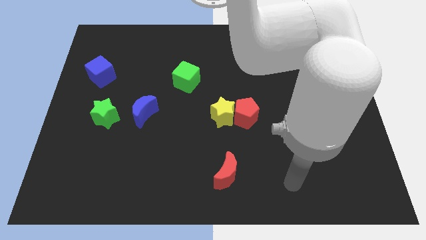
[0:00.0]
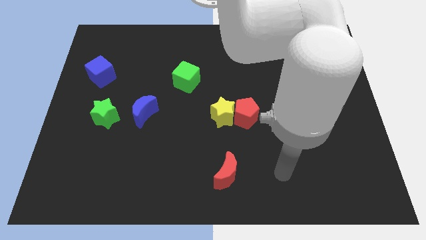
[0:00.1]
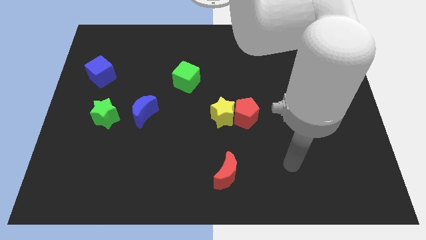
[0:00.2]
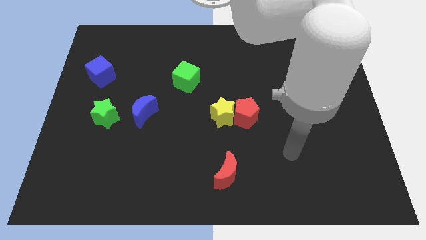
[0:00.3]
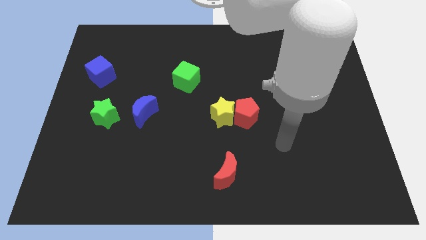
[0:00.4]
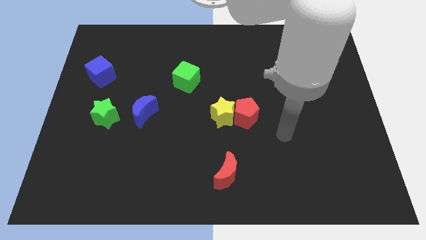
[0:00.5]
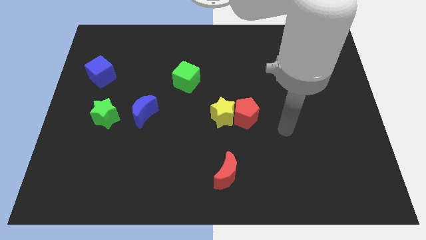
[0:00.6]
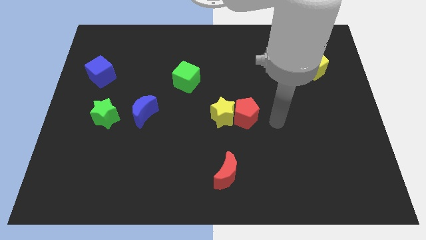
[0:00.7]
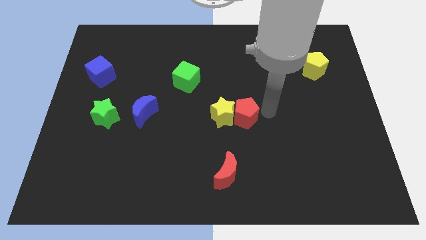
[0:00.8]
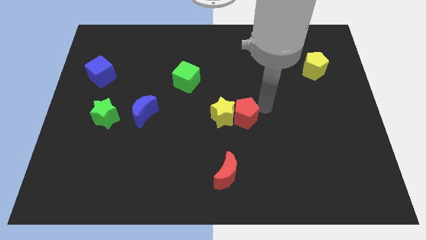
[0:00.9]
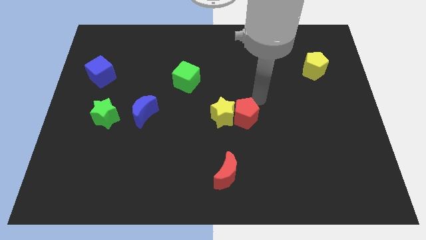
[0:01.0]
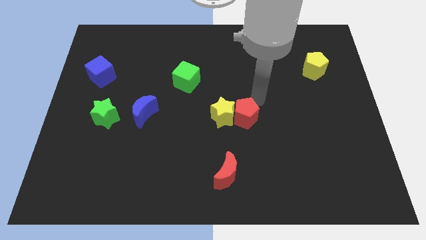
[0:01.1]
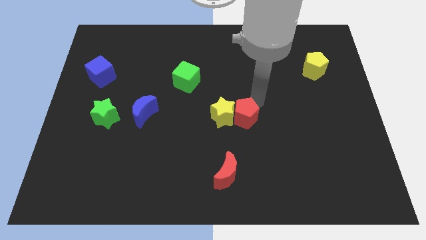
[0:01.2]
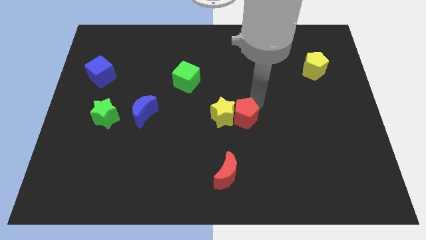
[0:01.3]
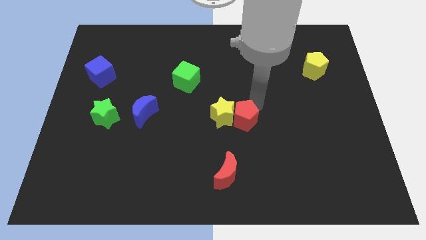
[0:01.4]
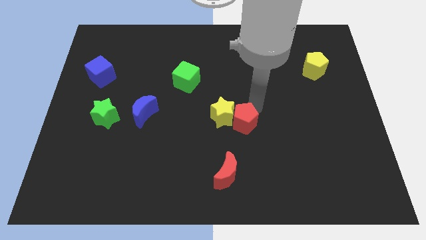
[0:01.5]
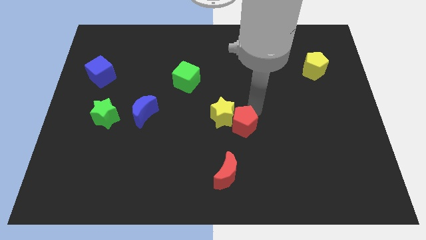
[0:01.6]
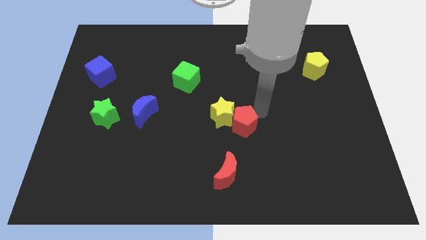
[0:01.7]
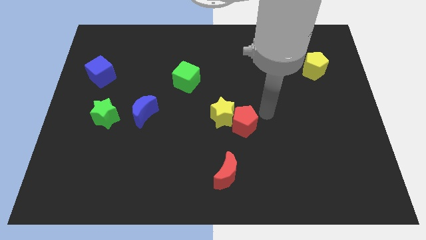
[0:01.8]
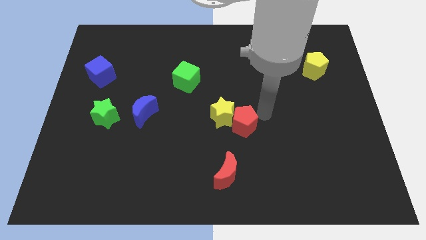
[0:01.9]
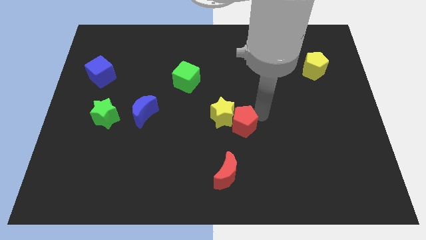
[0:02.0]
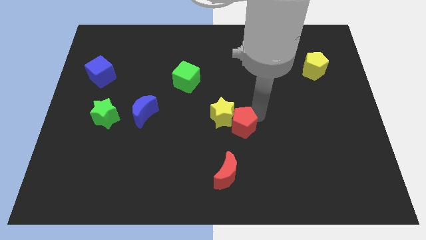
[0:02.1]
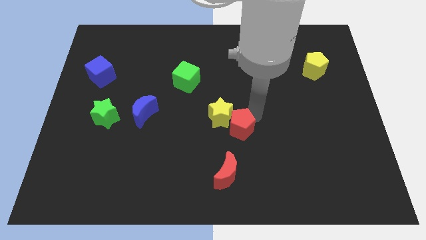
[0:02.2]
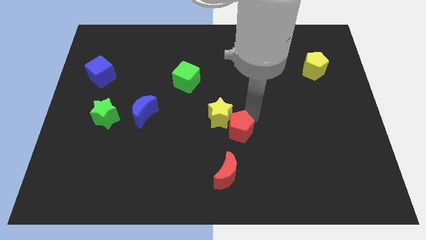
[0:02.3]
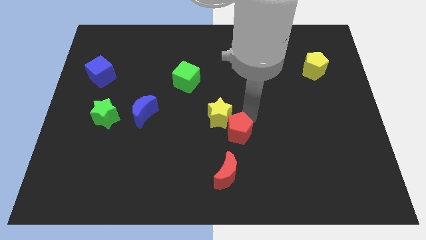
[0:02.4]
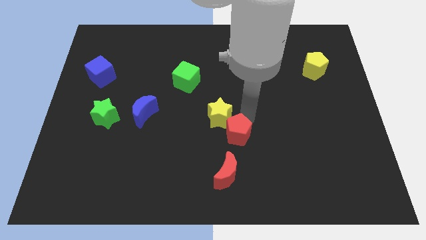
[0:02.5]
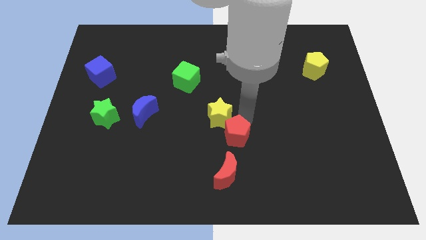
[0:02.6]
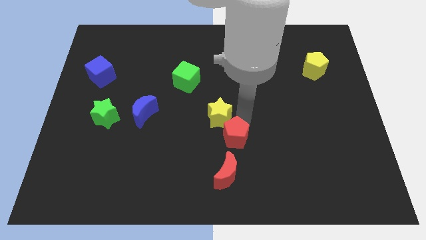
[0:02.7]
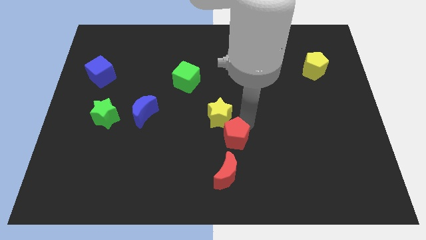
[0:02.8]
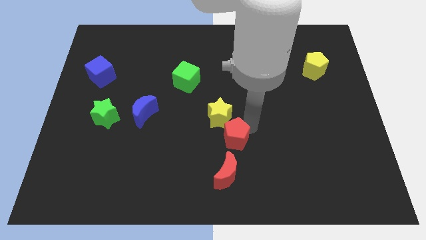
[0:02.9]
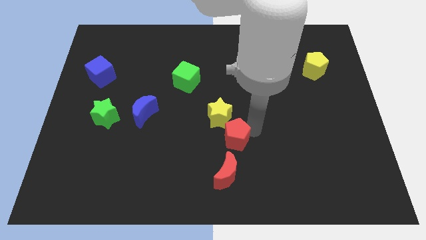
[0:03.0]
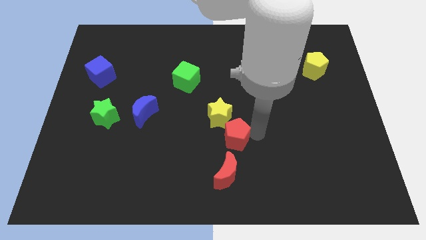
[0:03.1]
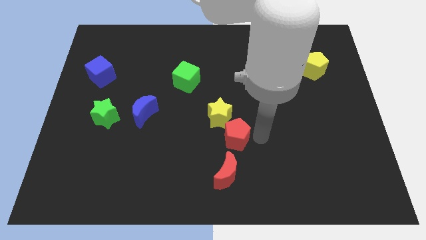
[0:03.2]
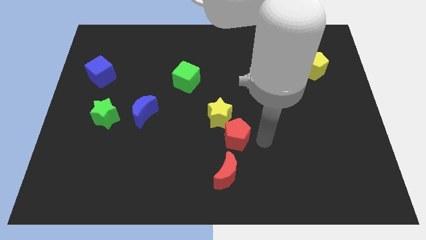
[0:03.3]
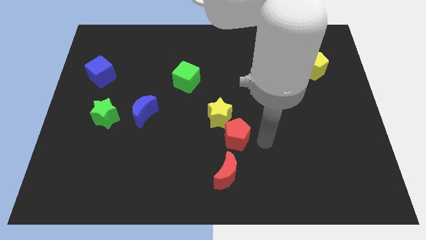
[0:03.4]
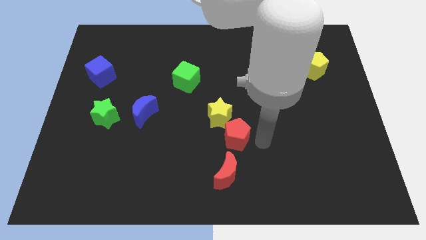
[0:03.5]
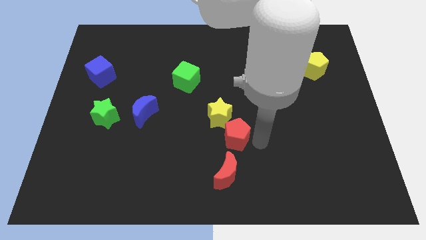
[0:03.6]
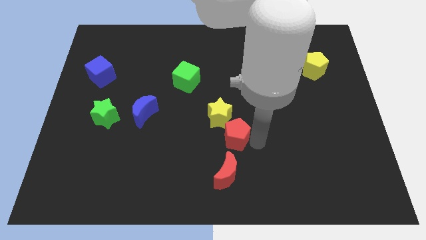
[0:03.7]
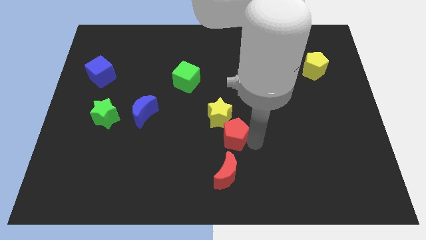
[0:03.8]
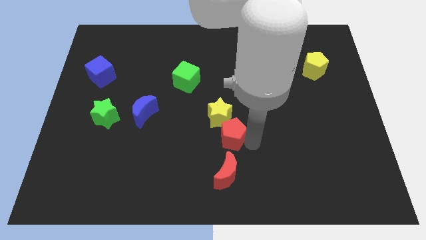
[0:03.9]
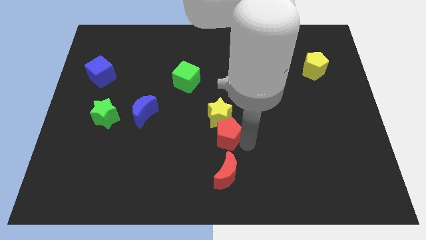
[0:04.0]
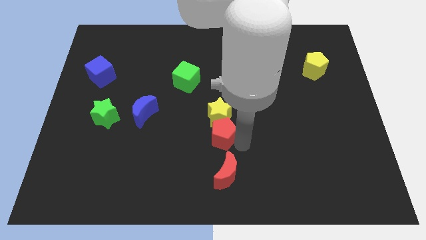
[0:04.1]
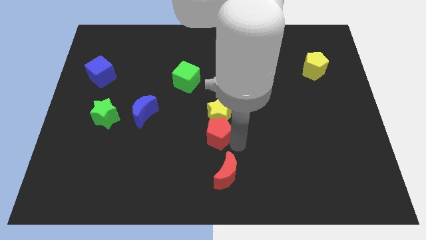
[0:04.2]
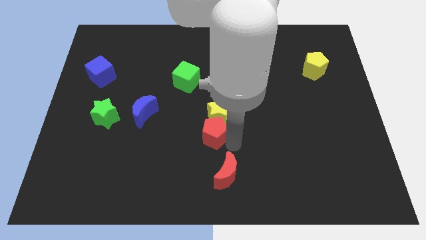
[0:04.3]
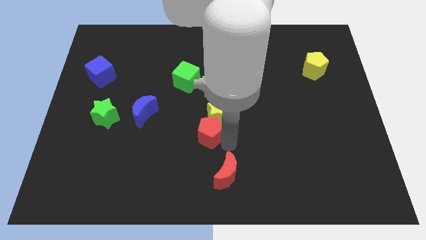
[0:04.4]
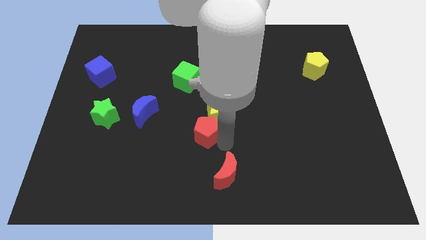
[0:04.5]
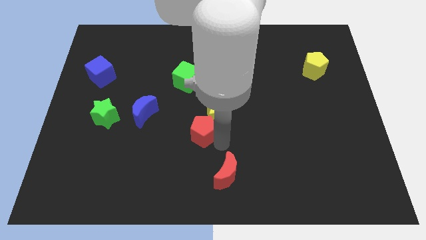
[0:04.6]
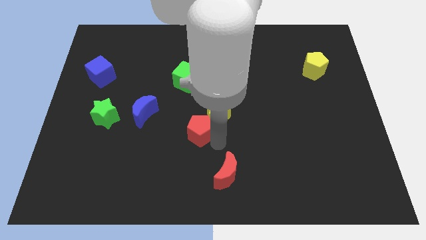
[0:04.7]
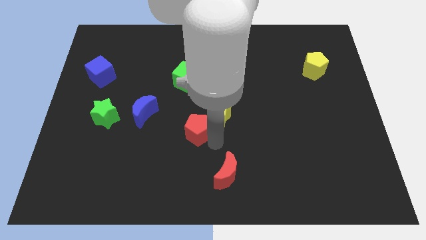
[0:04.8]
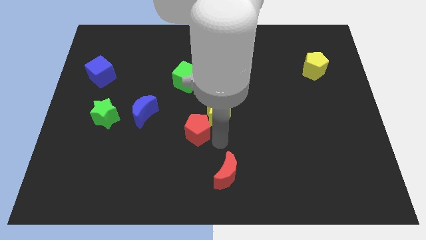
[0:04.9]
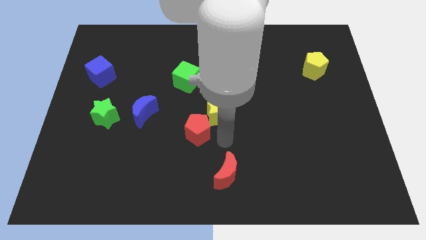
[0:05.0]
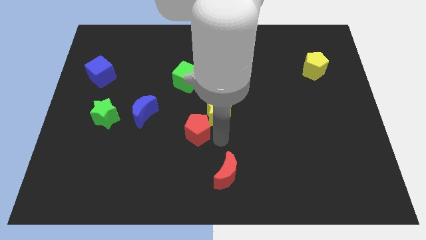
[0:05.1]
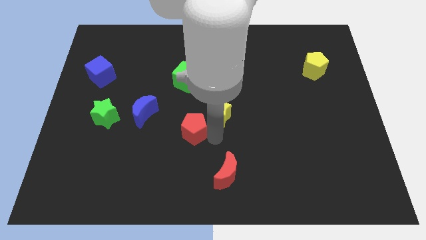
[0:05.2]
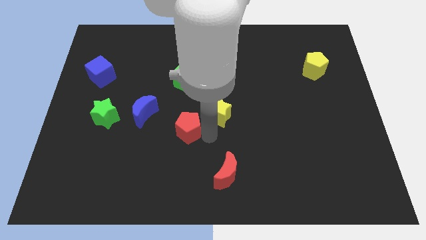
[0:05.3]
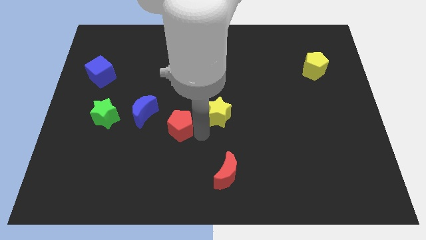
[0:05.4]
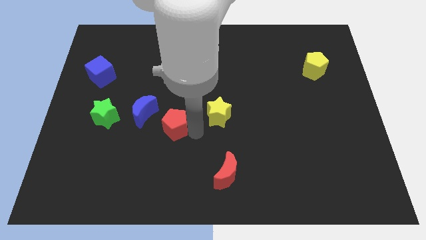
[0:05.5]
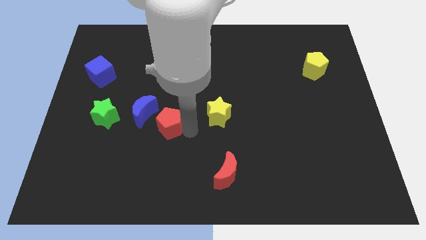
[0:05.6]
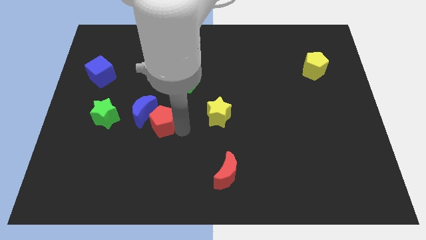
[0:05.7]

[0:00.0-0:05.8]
put the red pentagon to the blue moon

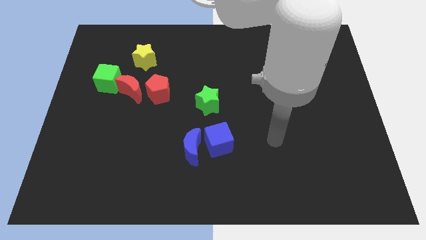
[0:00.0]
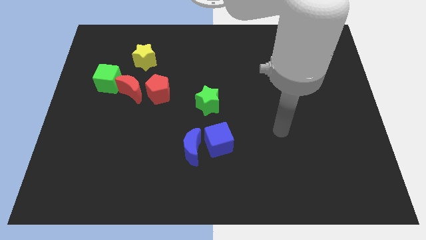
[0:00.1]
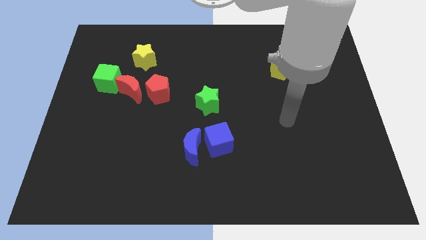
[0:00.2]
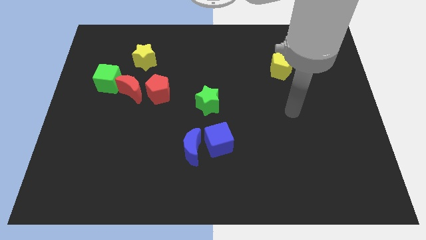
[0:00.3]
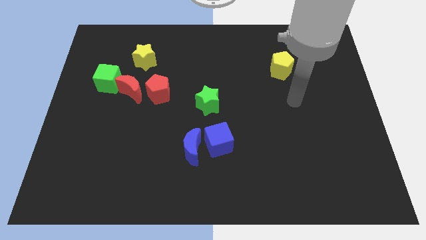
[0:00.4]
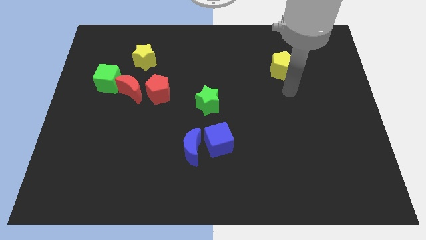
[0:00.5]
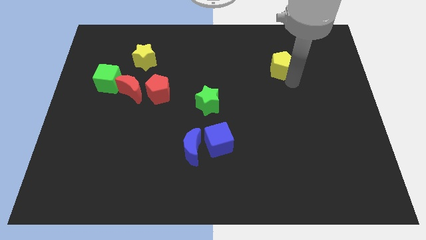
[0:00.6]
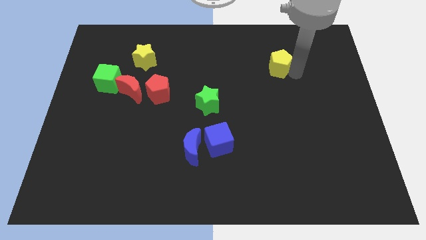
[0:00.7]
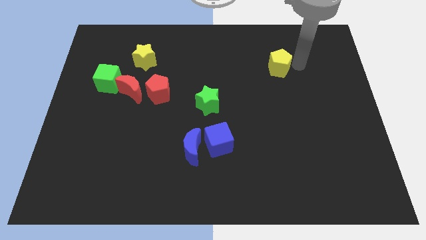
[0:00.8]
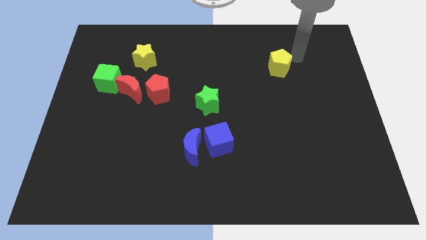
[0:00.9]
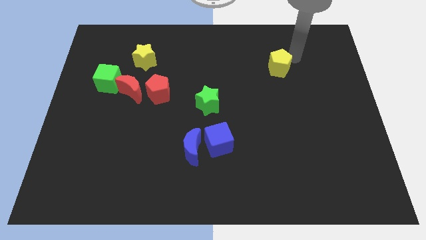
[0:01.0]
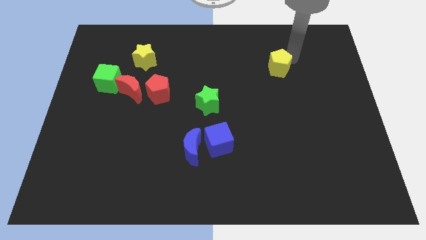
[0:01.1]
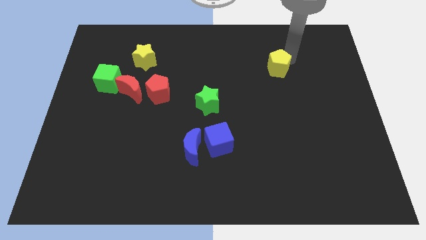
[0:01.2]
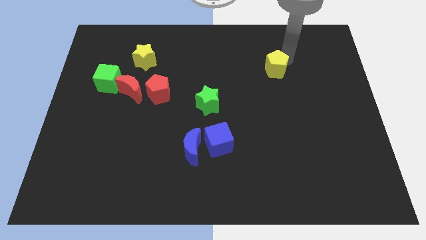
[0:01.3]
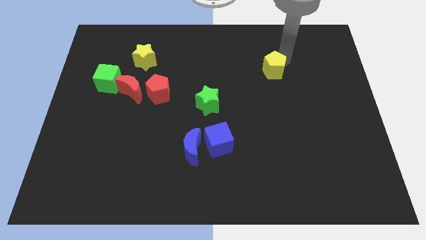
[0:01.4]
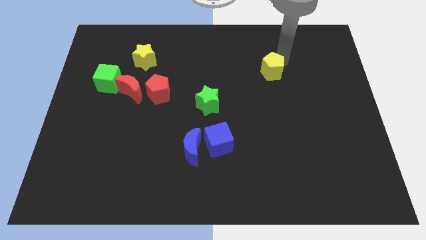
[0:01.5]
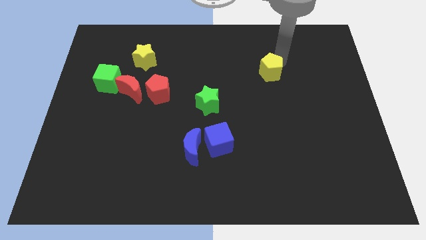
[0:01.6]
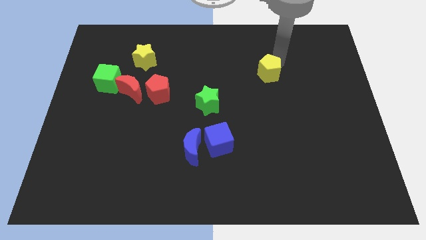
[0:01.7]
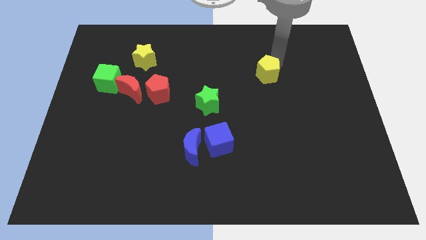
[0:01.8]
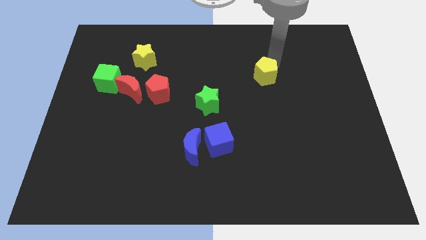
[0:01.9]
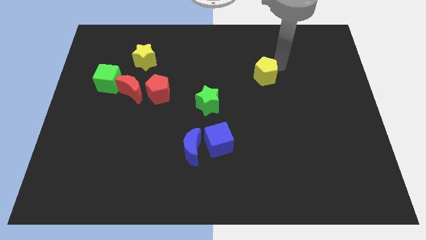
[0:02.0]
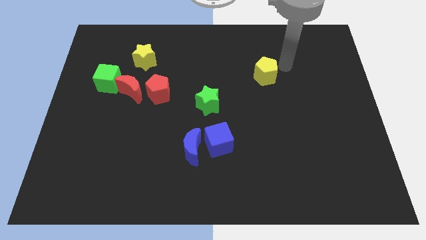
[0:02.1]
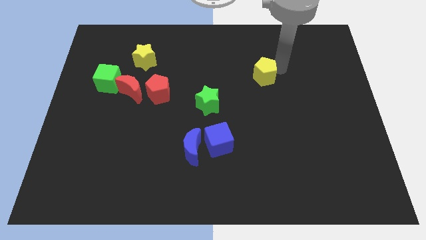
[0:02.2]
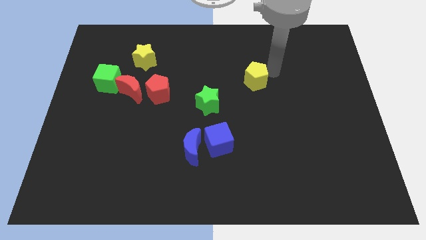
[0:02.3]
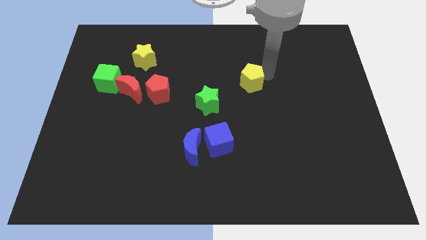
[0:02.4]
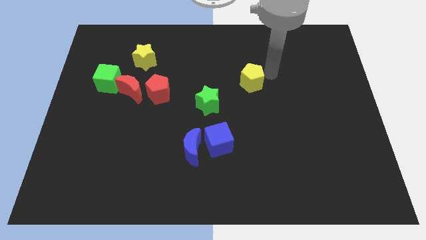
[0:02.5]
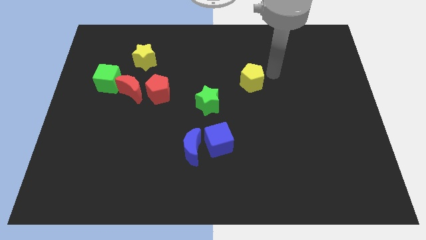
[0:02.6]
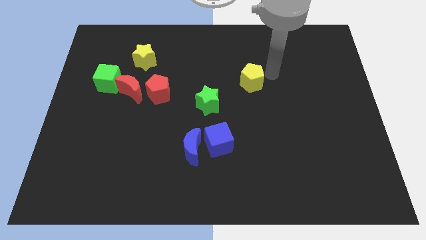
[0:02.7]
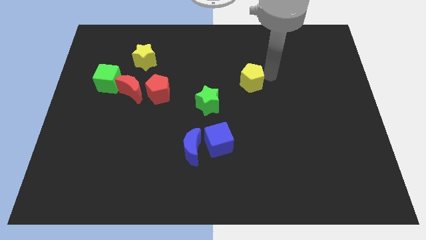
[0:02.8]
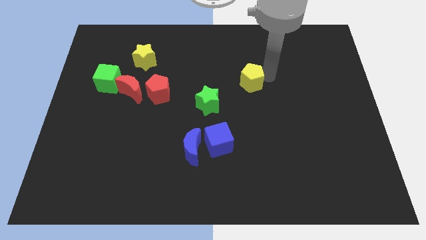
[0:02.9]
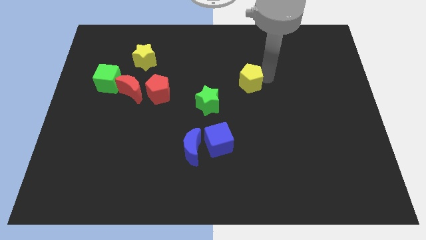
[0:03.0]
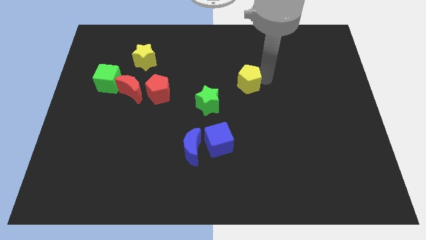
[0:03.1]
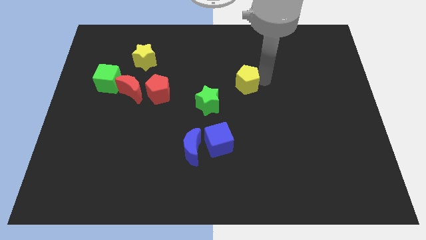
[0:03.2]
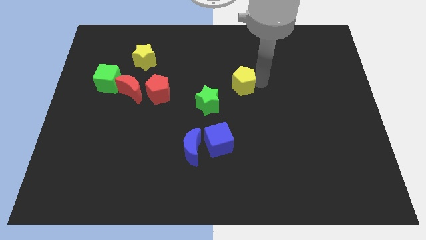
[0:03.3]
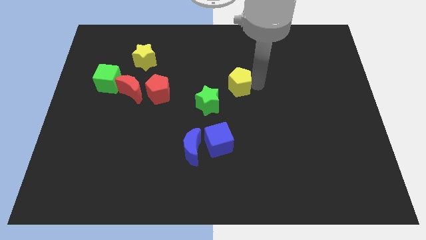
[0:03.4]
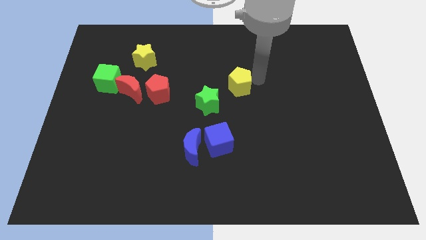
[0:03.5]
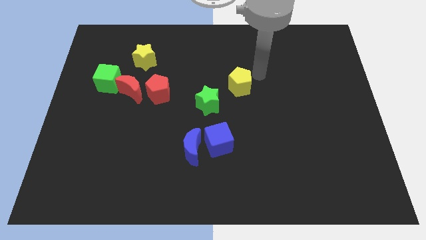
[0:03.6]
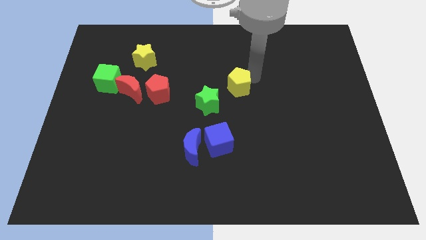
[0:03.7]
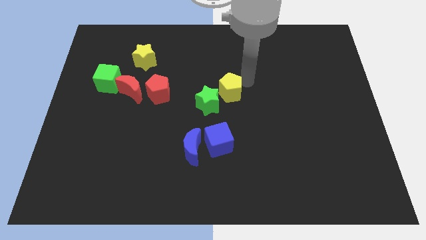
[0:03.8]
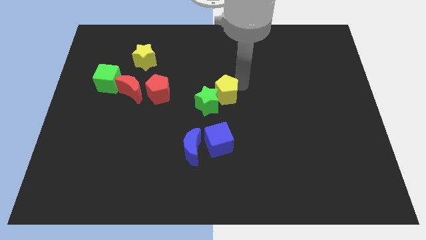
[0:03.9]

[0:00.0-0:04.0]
slide the yellow pentagon towards the green star
